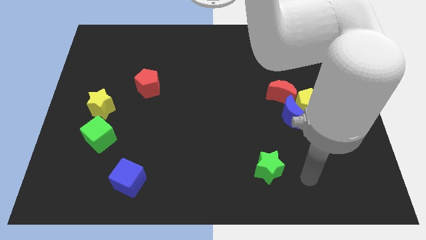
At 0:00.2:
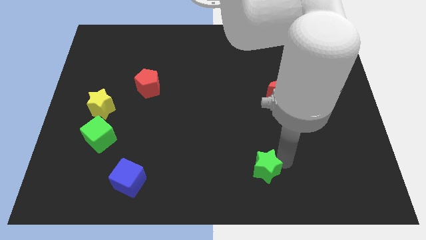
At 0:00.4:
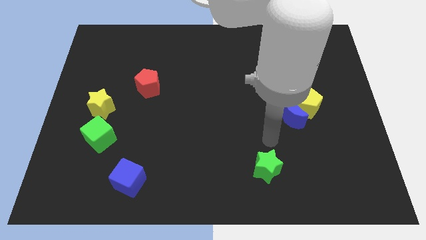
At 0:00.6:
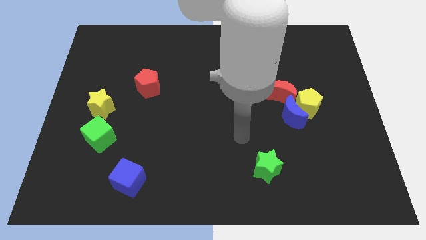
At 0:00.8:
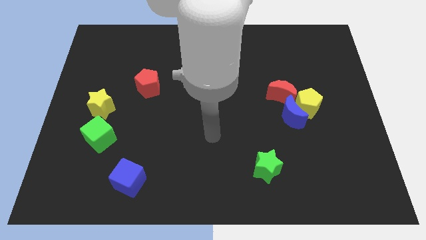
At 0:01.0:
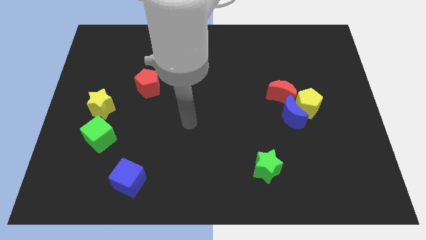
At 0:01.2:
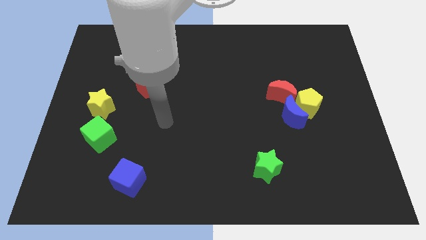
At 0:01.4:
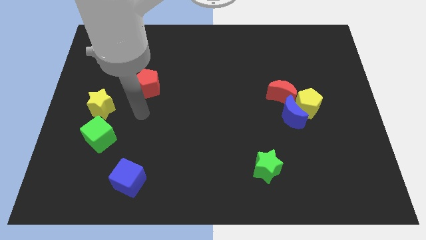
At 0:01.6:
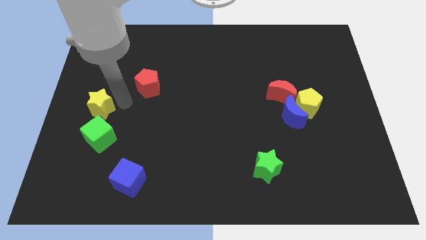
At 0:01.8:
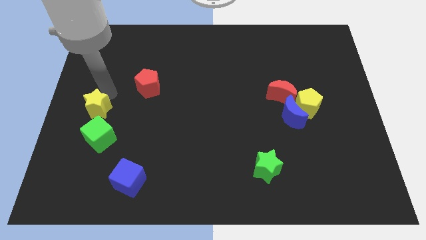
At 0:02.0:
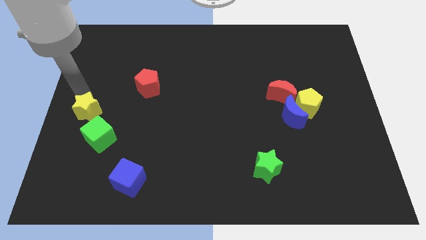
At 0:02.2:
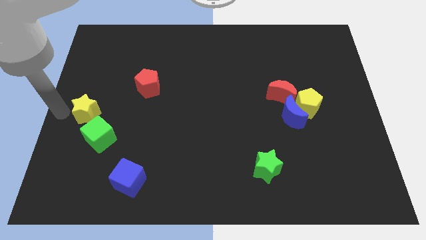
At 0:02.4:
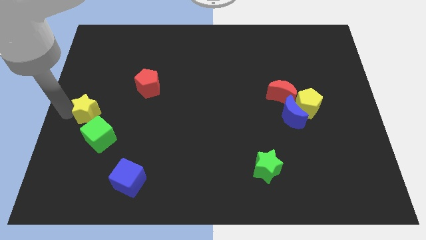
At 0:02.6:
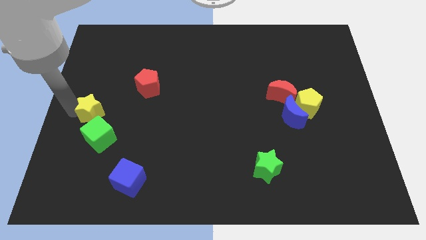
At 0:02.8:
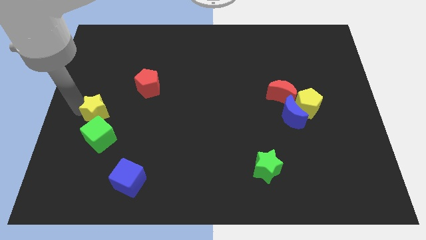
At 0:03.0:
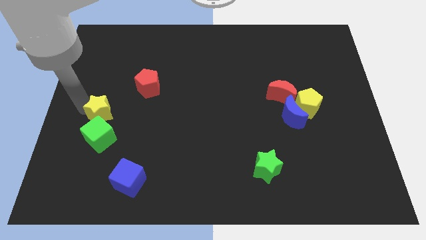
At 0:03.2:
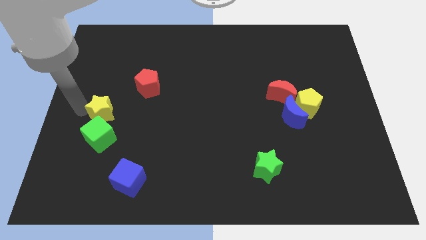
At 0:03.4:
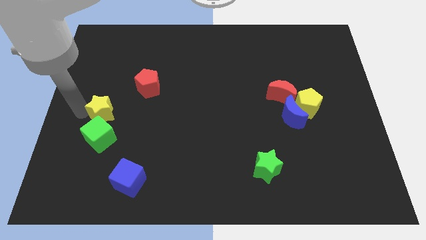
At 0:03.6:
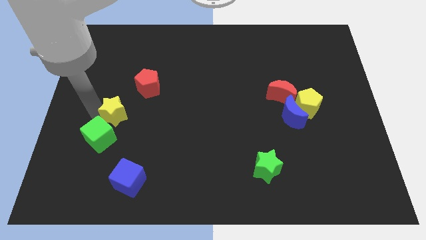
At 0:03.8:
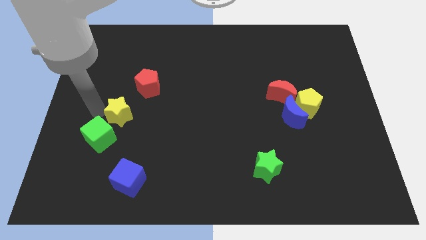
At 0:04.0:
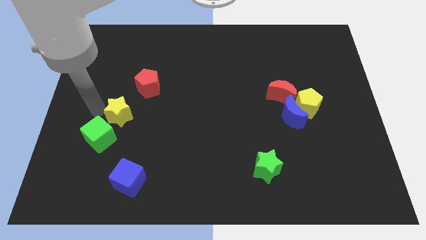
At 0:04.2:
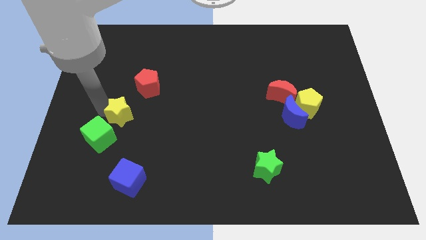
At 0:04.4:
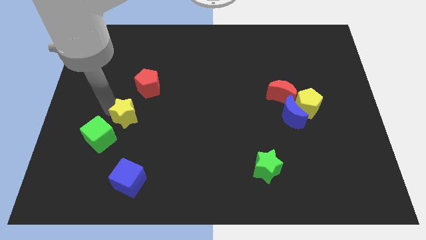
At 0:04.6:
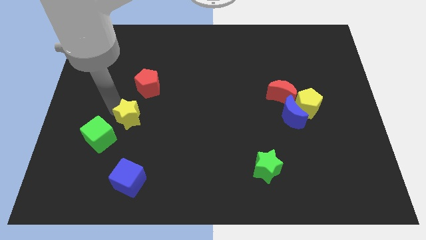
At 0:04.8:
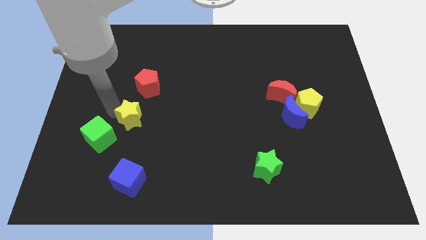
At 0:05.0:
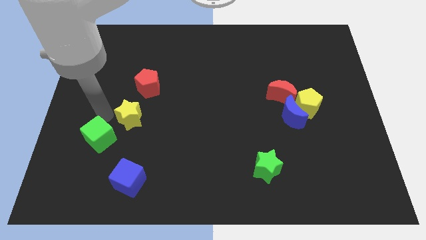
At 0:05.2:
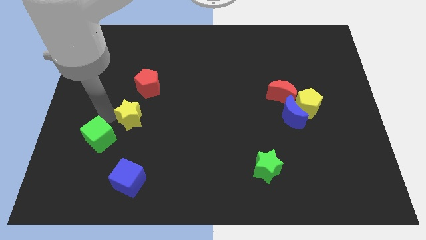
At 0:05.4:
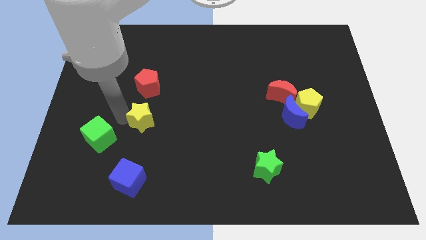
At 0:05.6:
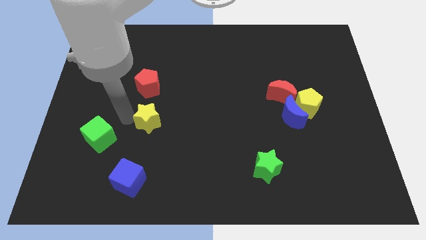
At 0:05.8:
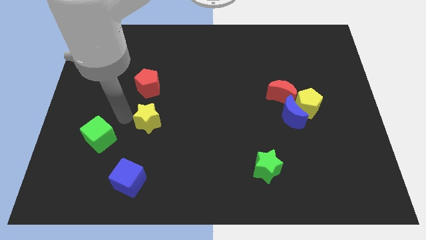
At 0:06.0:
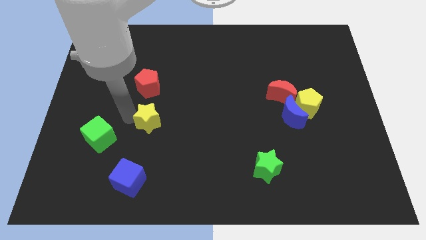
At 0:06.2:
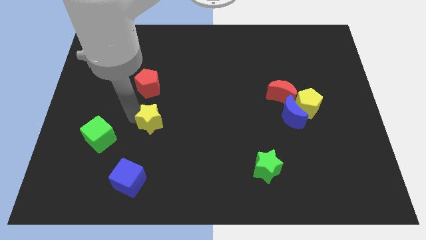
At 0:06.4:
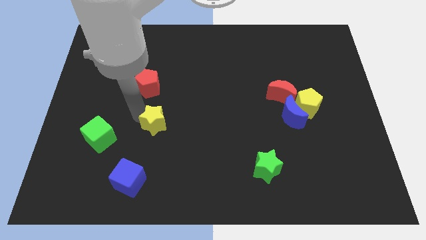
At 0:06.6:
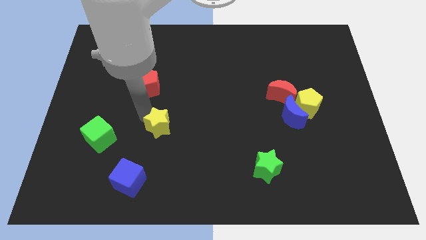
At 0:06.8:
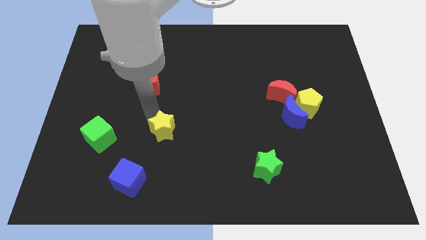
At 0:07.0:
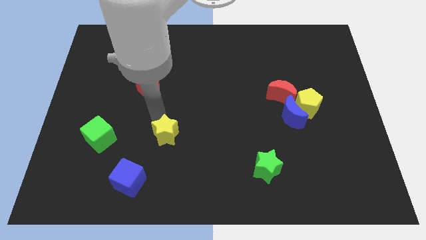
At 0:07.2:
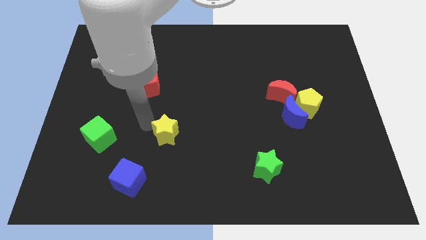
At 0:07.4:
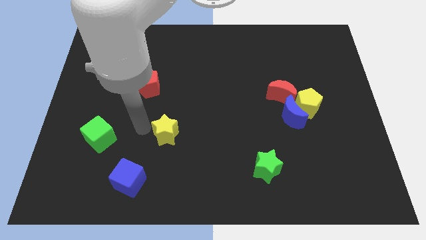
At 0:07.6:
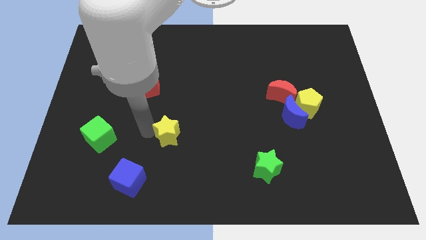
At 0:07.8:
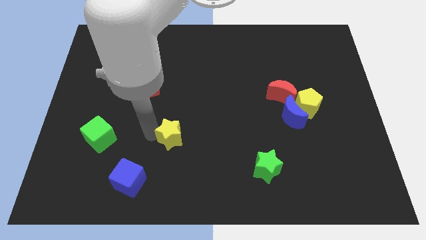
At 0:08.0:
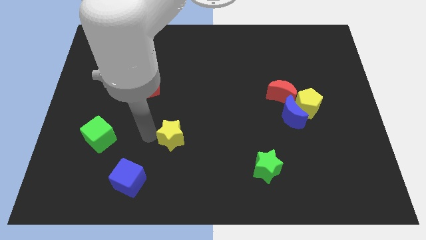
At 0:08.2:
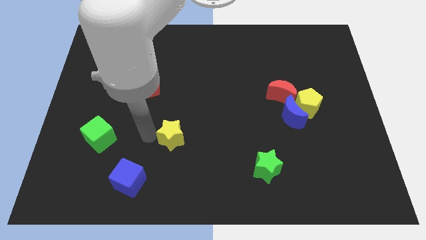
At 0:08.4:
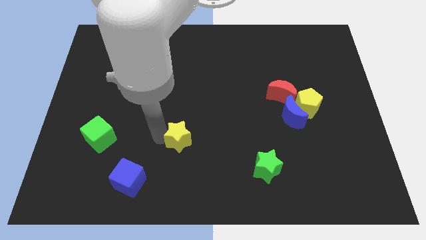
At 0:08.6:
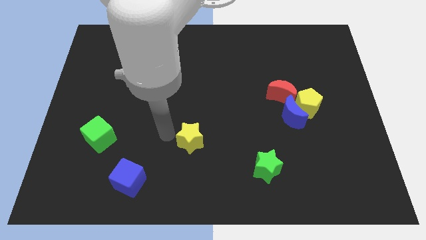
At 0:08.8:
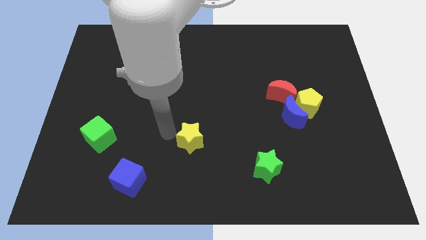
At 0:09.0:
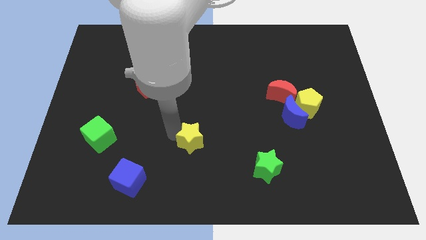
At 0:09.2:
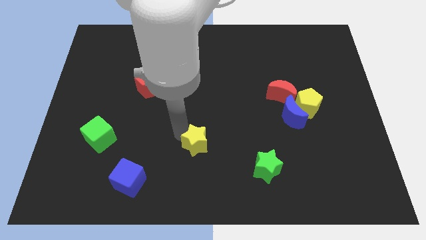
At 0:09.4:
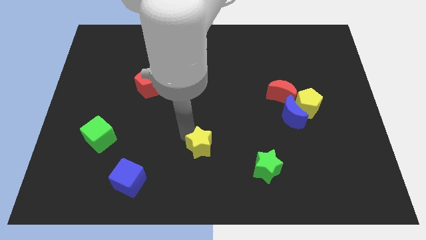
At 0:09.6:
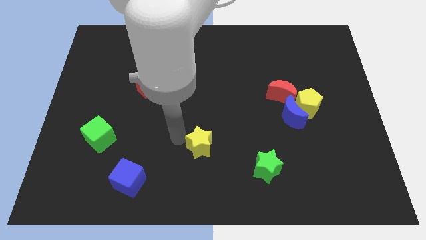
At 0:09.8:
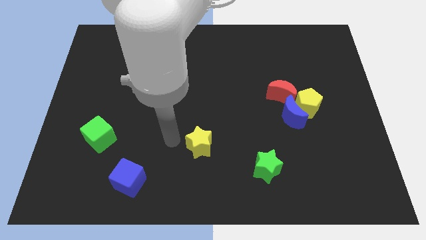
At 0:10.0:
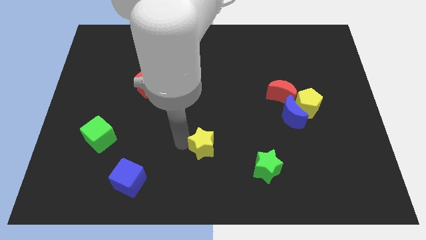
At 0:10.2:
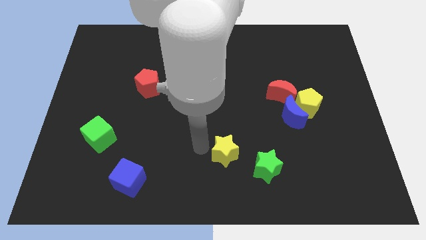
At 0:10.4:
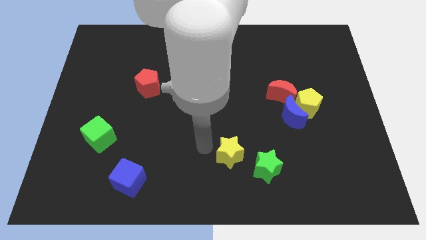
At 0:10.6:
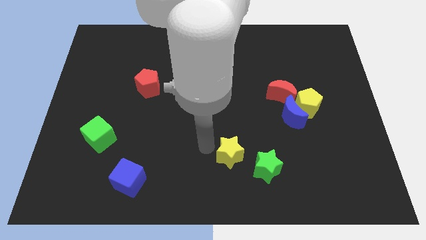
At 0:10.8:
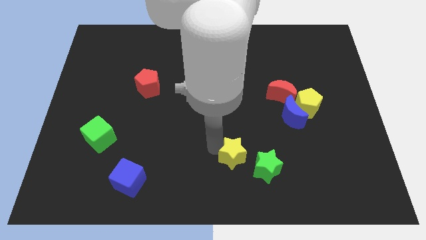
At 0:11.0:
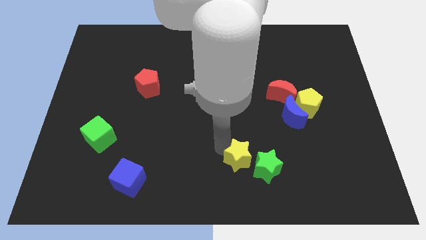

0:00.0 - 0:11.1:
push the yellow star next to the green star

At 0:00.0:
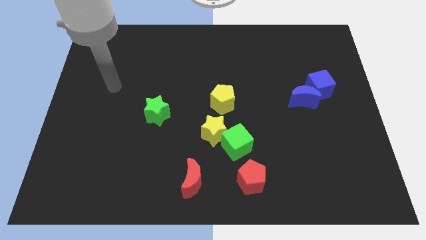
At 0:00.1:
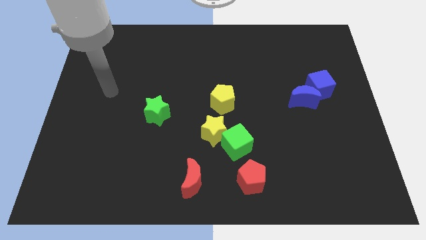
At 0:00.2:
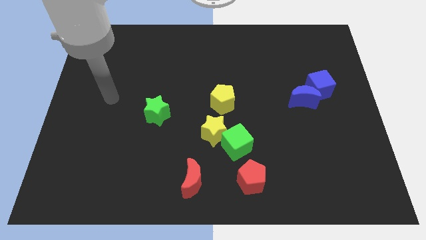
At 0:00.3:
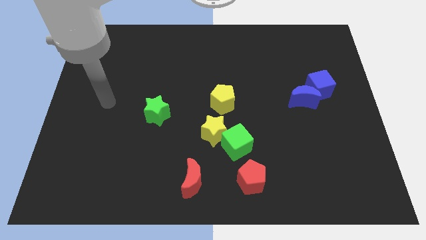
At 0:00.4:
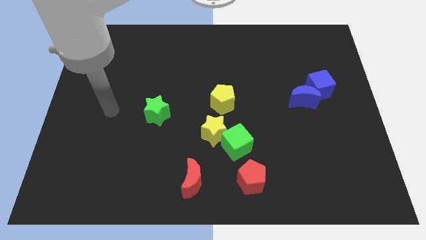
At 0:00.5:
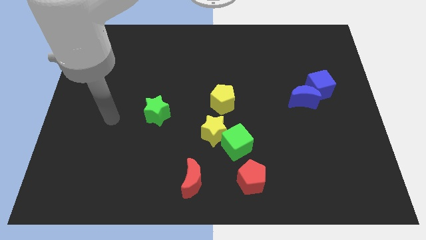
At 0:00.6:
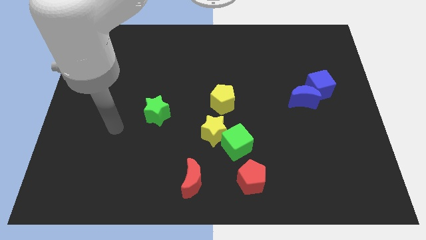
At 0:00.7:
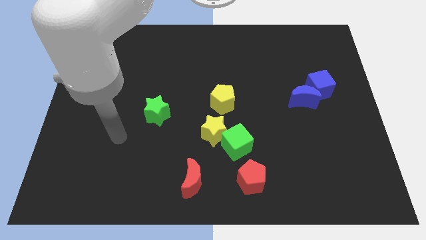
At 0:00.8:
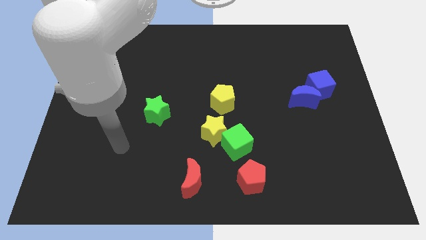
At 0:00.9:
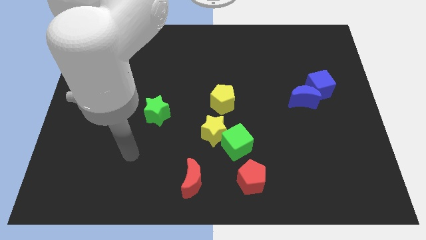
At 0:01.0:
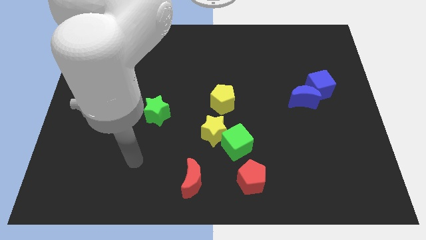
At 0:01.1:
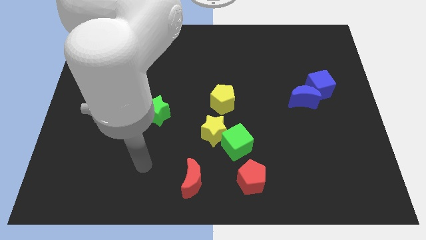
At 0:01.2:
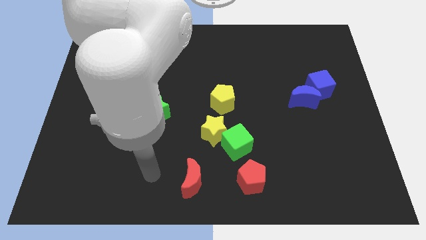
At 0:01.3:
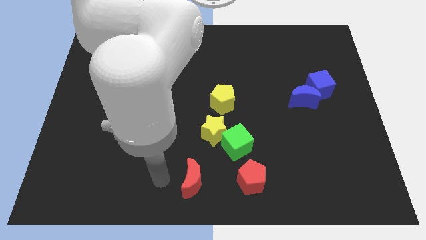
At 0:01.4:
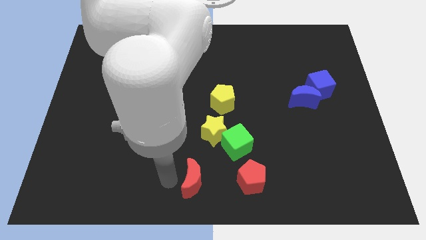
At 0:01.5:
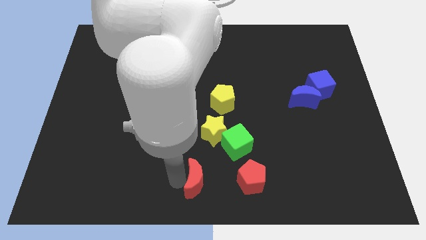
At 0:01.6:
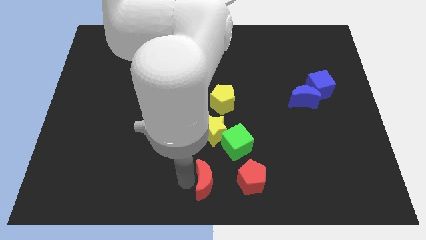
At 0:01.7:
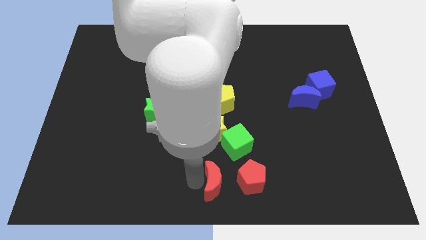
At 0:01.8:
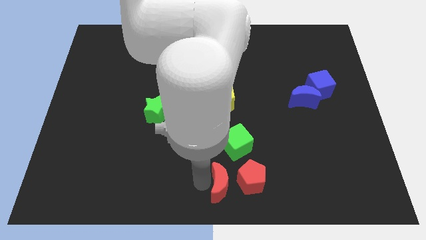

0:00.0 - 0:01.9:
move the red moon next to the red pentagon
